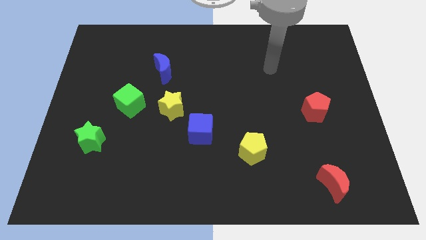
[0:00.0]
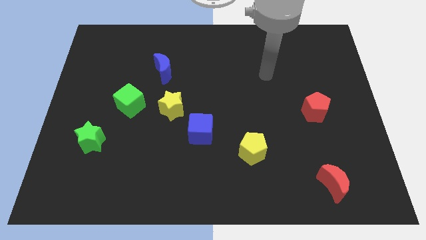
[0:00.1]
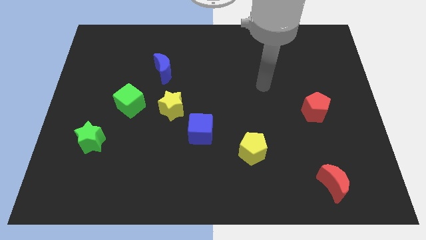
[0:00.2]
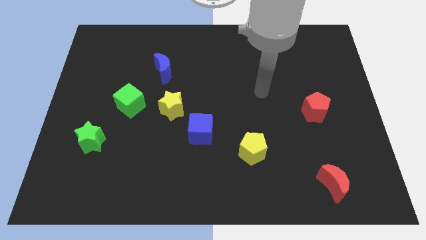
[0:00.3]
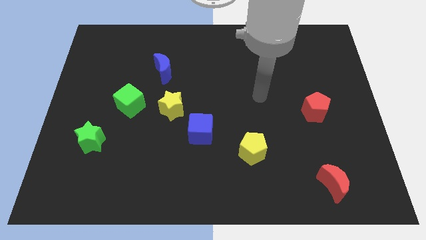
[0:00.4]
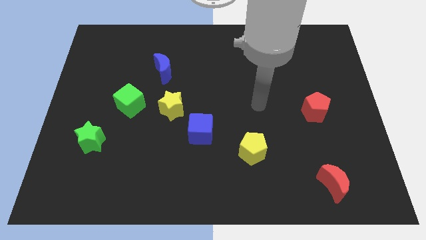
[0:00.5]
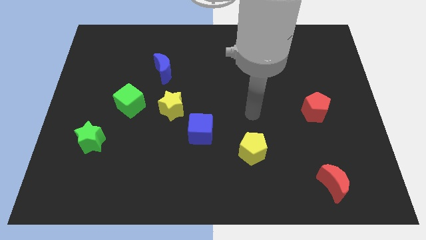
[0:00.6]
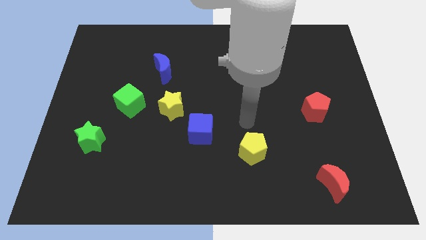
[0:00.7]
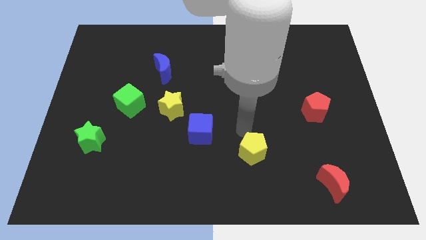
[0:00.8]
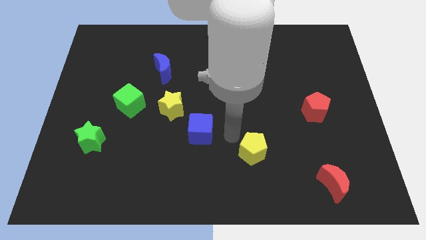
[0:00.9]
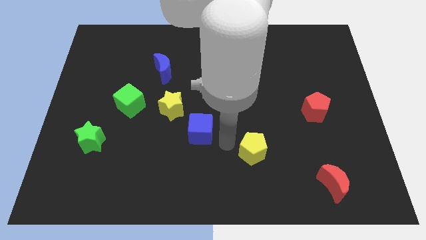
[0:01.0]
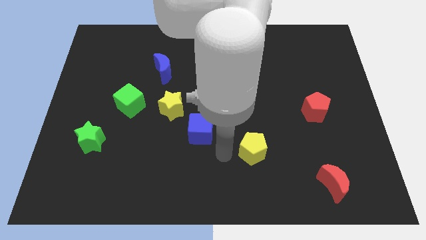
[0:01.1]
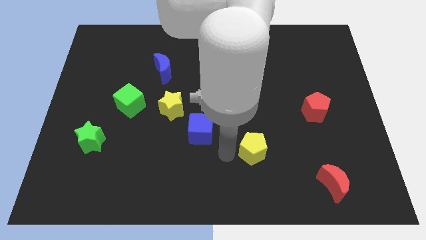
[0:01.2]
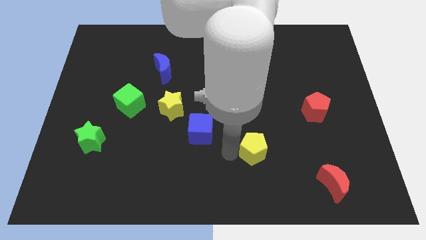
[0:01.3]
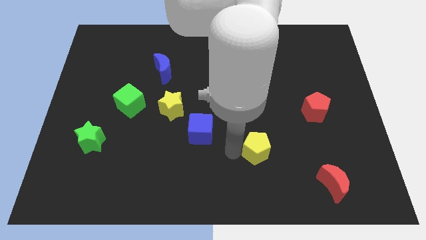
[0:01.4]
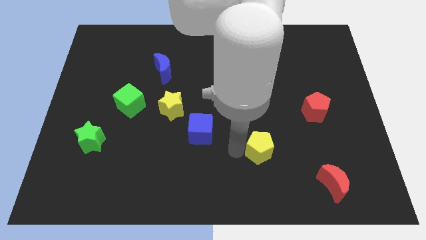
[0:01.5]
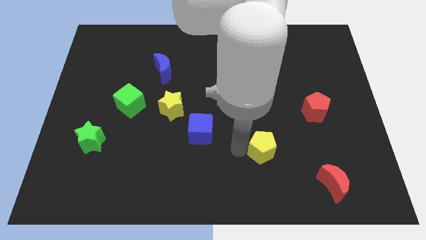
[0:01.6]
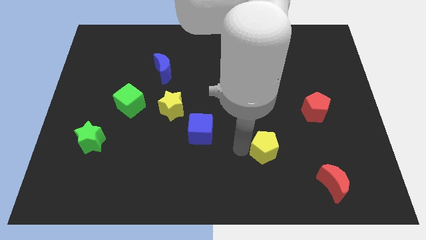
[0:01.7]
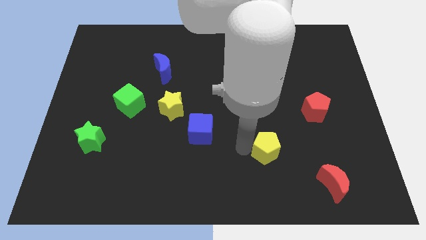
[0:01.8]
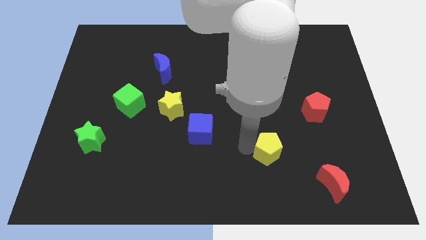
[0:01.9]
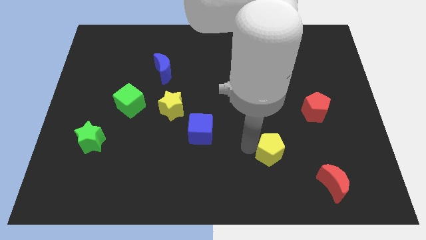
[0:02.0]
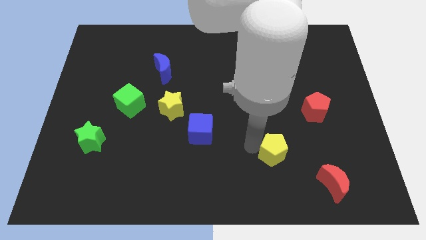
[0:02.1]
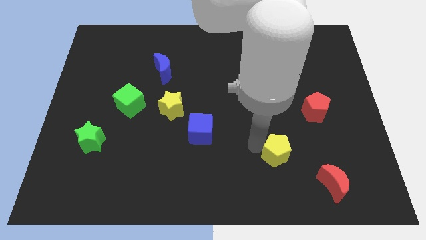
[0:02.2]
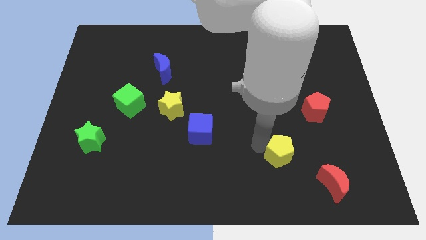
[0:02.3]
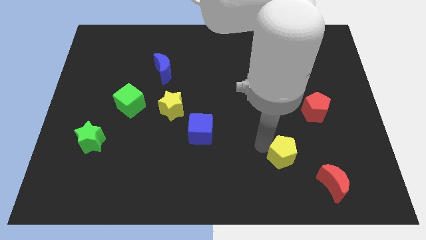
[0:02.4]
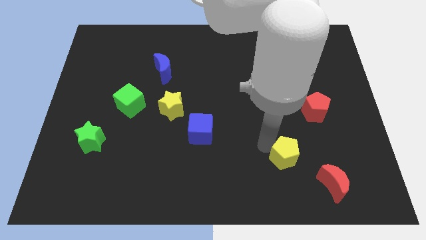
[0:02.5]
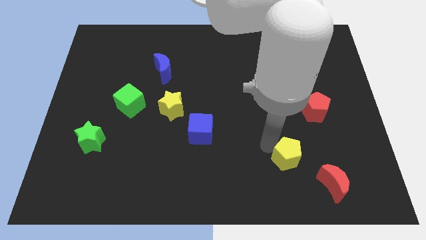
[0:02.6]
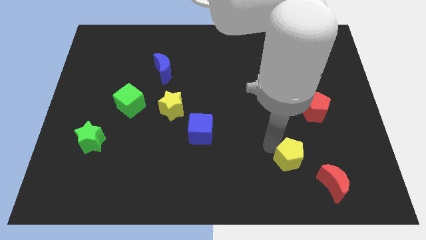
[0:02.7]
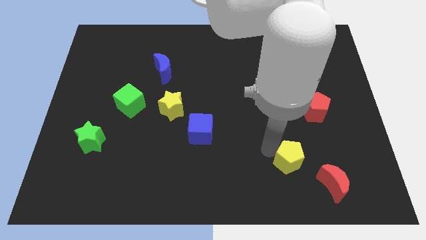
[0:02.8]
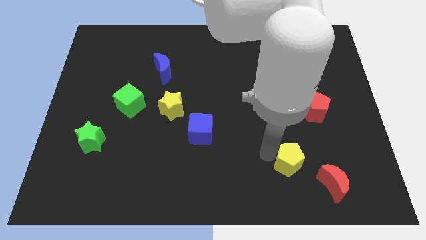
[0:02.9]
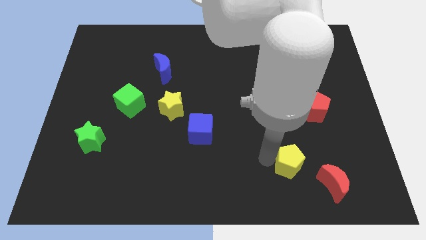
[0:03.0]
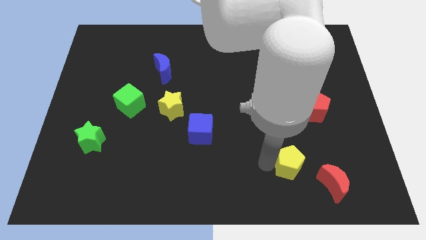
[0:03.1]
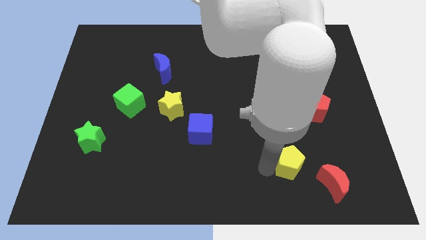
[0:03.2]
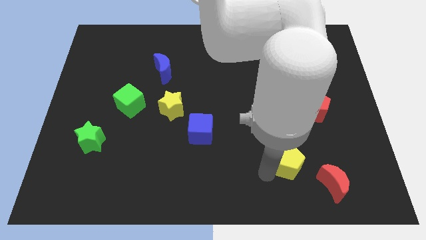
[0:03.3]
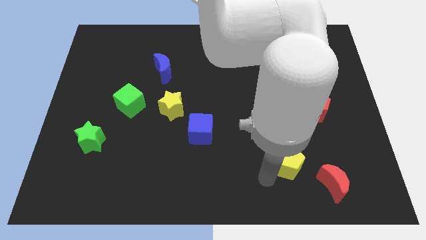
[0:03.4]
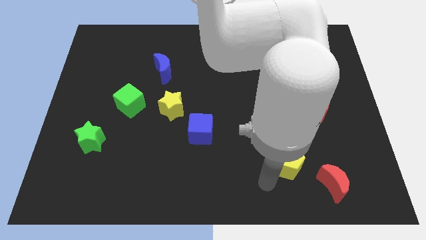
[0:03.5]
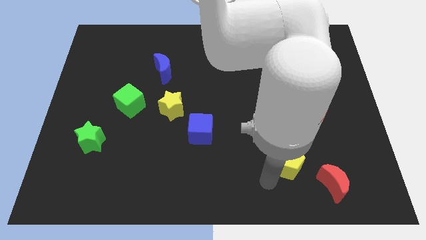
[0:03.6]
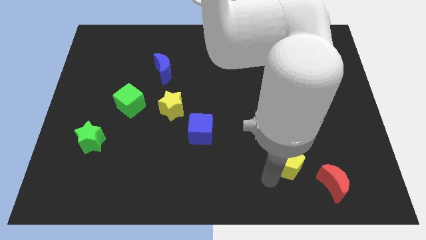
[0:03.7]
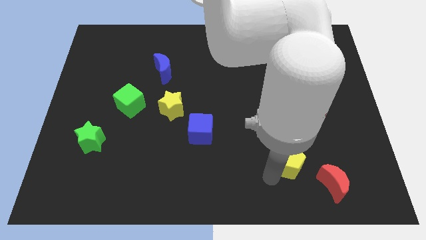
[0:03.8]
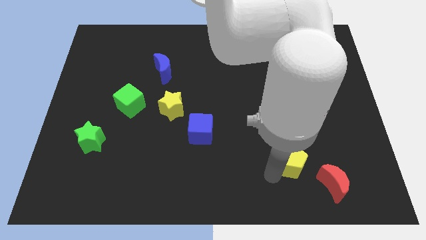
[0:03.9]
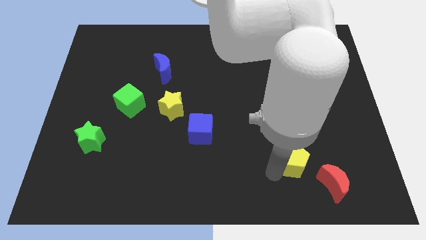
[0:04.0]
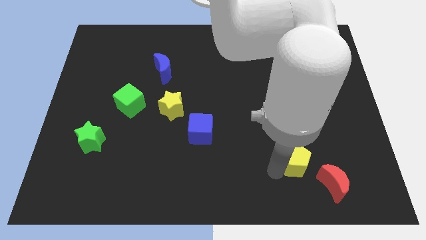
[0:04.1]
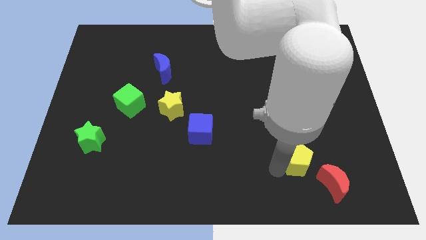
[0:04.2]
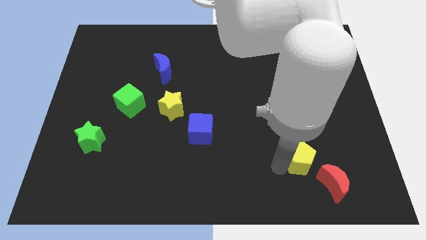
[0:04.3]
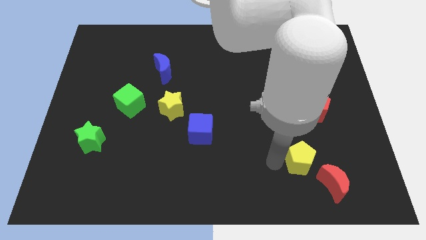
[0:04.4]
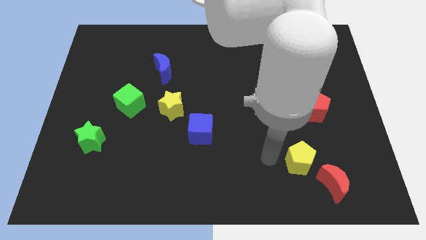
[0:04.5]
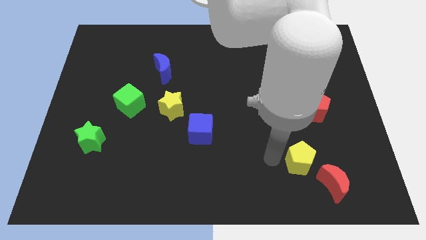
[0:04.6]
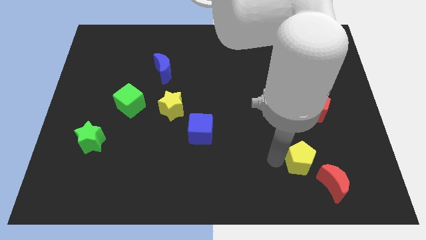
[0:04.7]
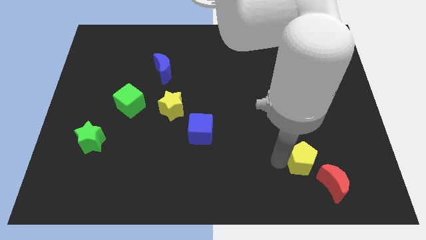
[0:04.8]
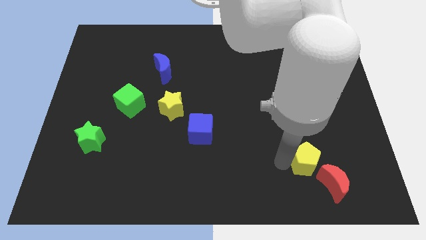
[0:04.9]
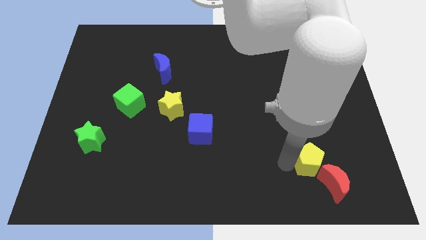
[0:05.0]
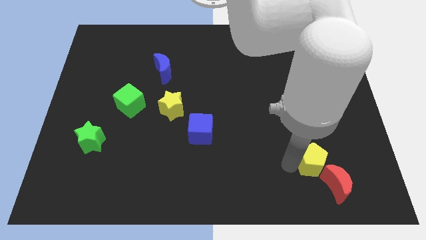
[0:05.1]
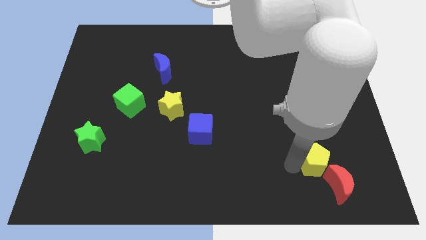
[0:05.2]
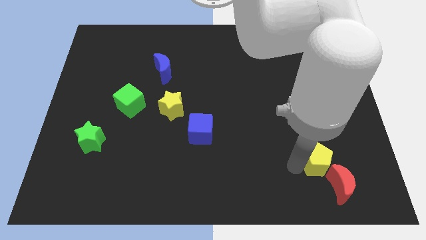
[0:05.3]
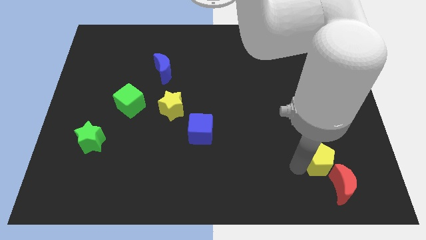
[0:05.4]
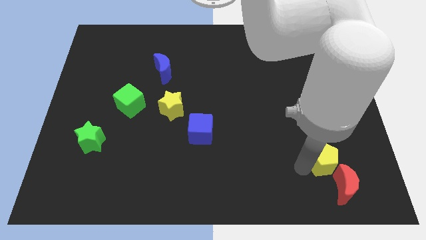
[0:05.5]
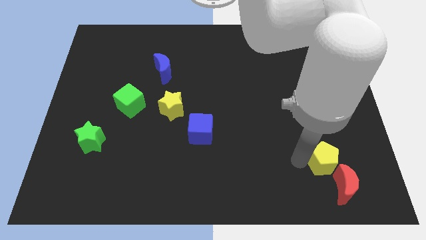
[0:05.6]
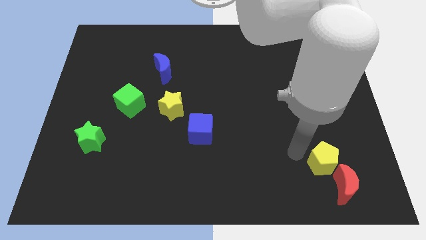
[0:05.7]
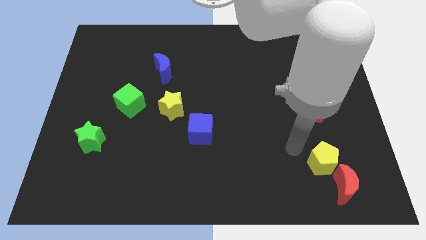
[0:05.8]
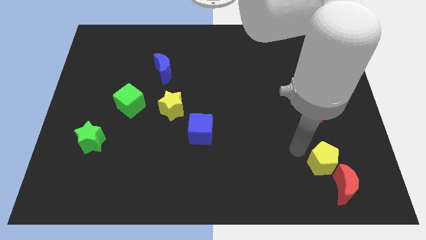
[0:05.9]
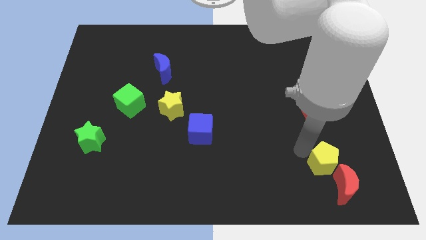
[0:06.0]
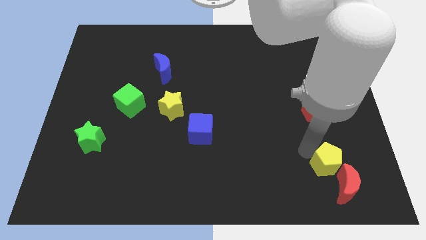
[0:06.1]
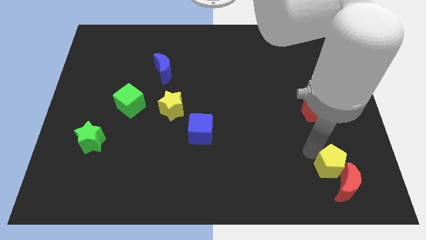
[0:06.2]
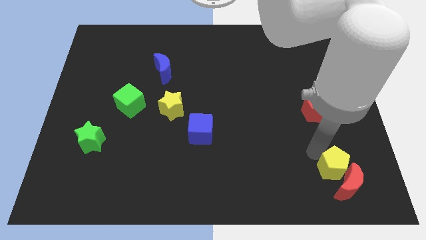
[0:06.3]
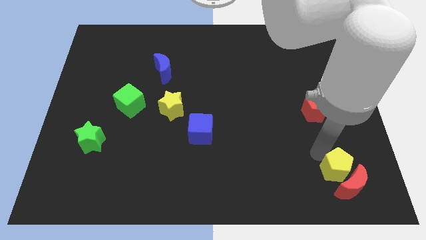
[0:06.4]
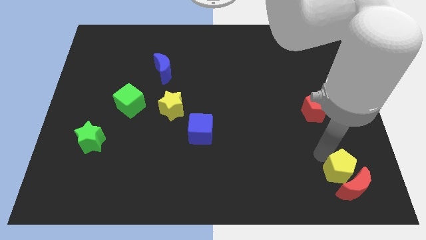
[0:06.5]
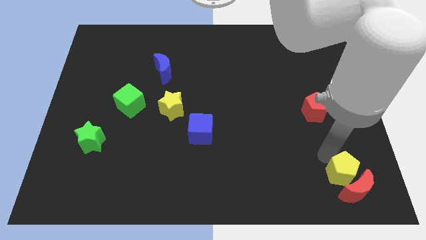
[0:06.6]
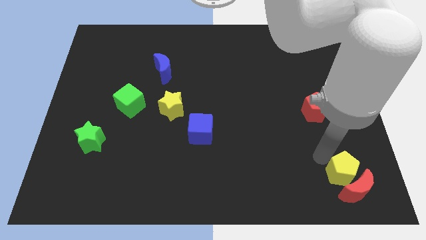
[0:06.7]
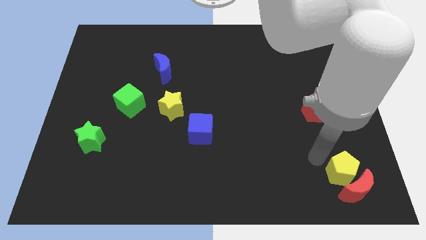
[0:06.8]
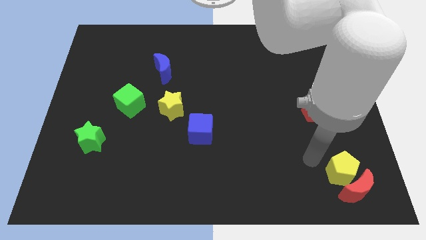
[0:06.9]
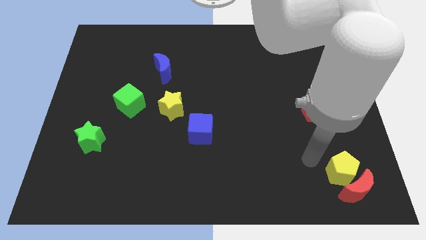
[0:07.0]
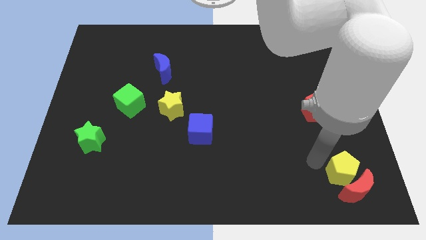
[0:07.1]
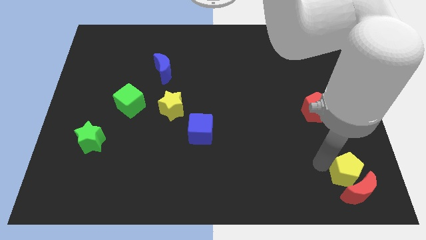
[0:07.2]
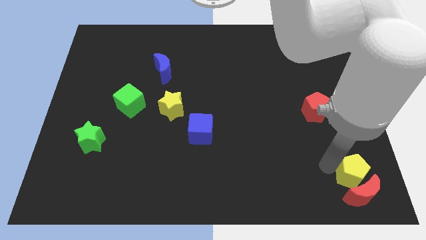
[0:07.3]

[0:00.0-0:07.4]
put the yellow pentagon to the bottom right of the board
